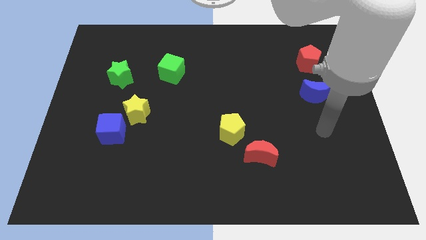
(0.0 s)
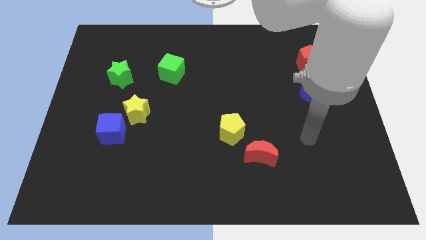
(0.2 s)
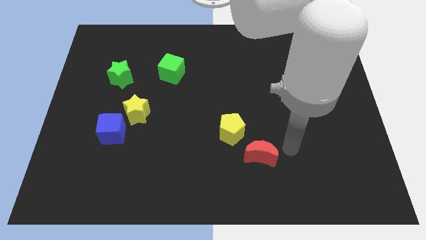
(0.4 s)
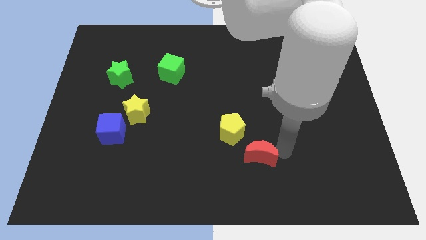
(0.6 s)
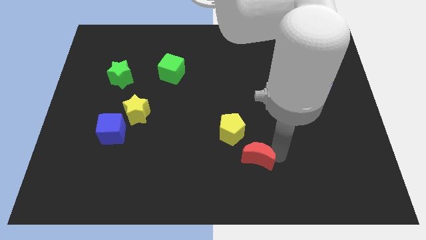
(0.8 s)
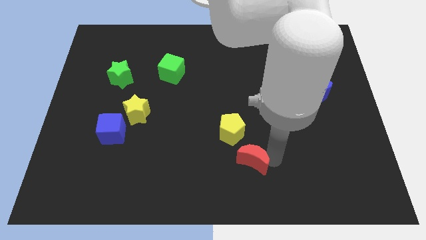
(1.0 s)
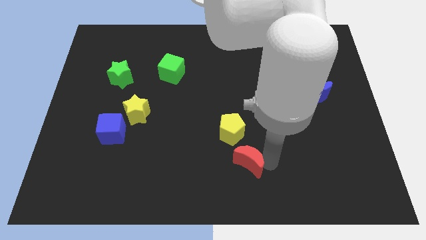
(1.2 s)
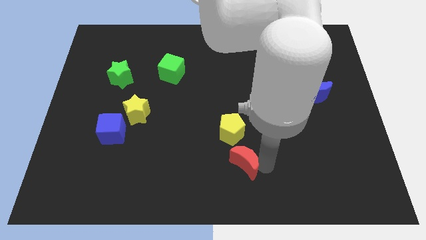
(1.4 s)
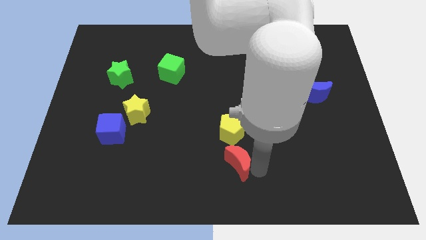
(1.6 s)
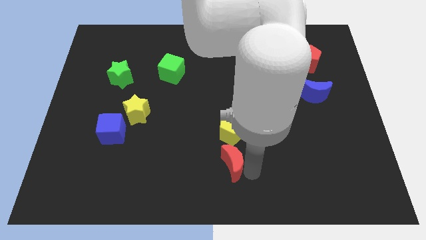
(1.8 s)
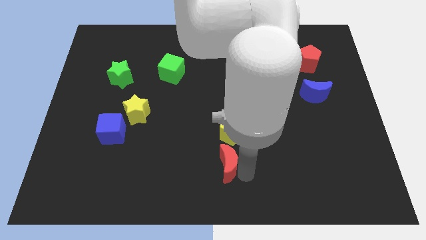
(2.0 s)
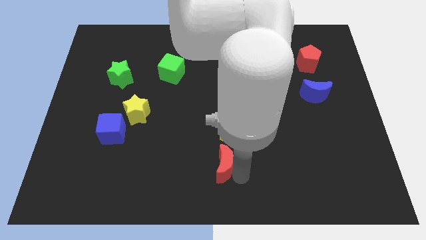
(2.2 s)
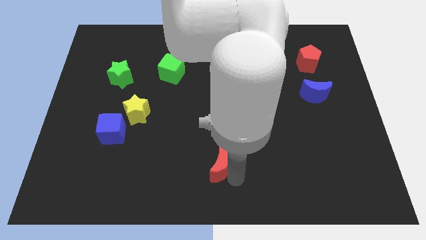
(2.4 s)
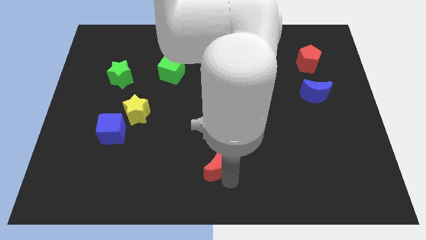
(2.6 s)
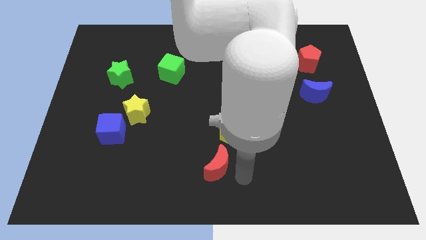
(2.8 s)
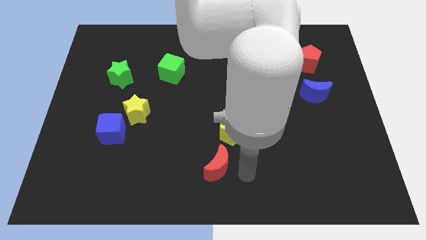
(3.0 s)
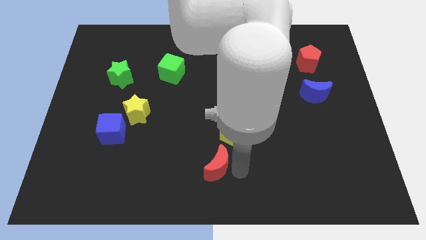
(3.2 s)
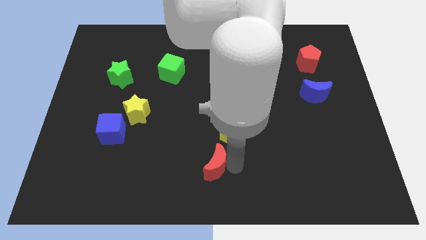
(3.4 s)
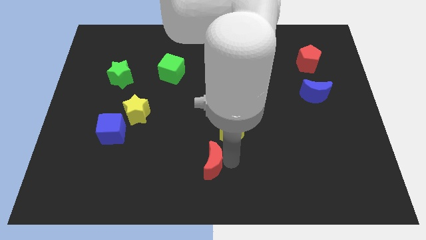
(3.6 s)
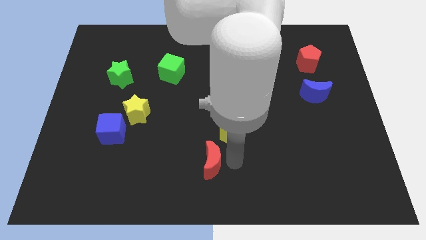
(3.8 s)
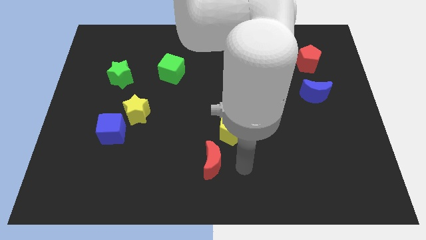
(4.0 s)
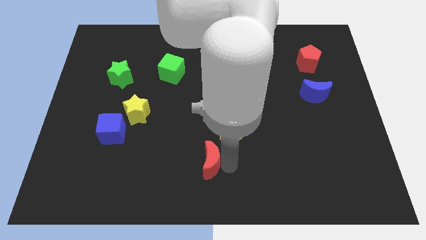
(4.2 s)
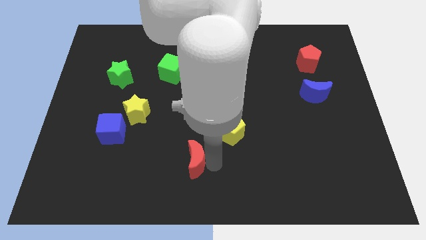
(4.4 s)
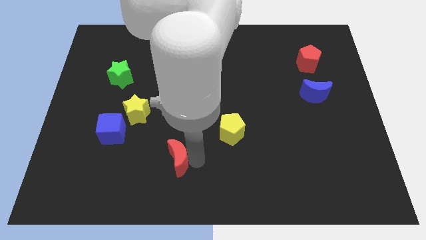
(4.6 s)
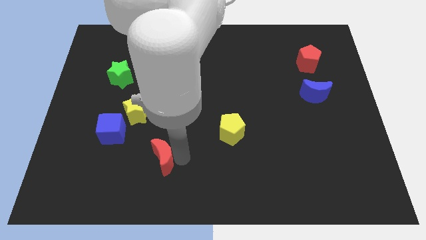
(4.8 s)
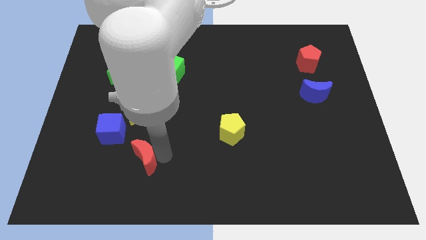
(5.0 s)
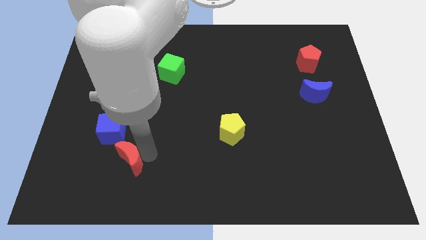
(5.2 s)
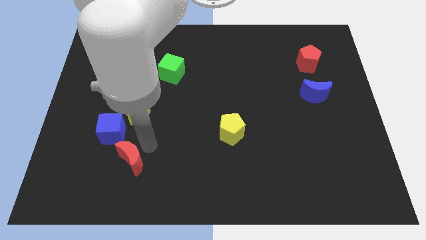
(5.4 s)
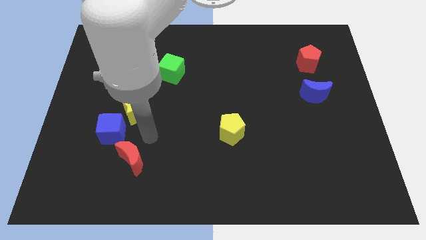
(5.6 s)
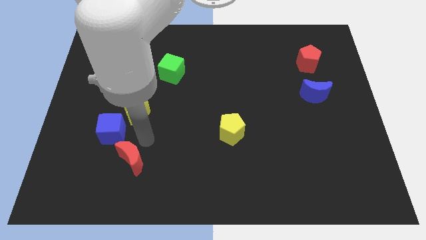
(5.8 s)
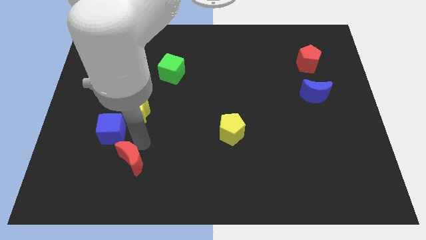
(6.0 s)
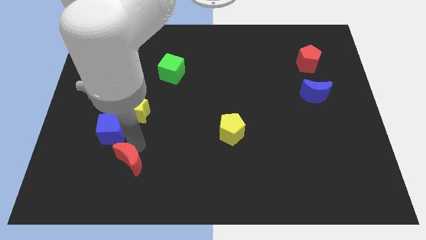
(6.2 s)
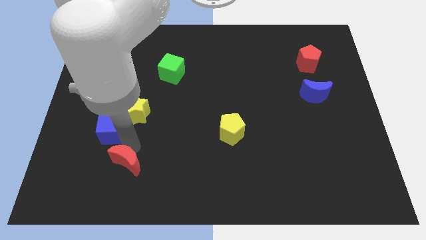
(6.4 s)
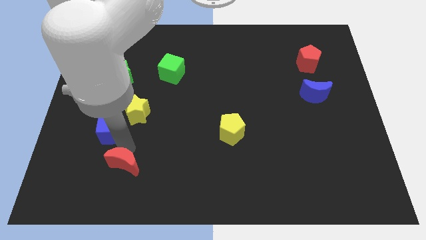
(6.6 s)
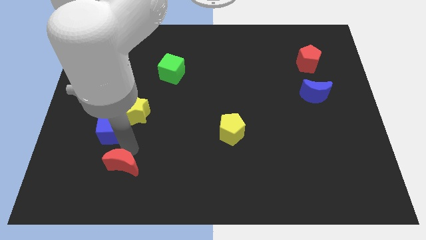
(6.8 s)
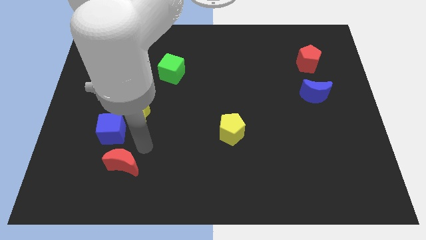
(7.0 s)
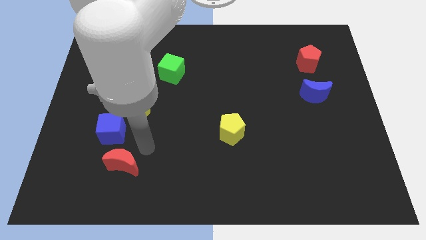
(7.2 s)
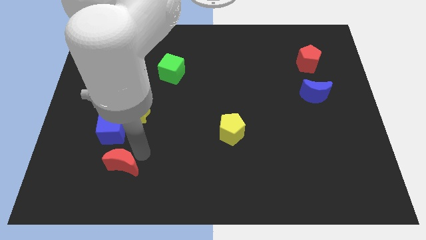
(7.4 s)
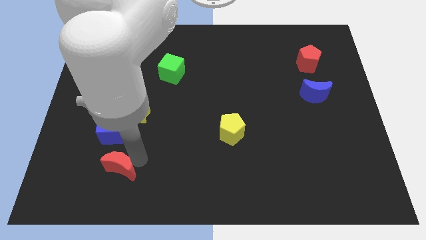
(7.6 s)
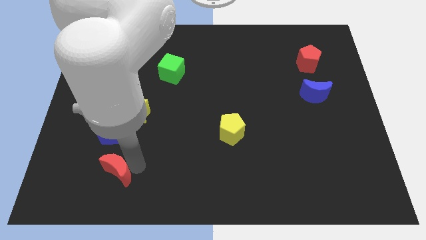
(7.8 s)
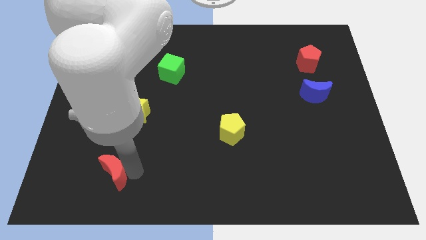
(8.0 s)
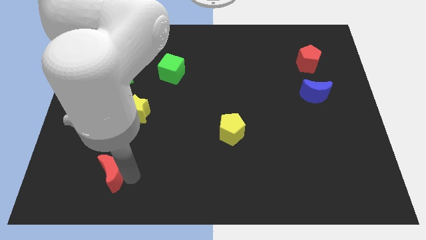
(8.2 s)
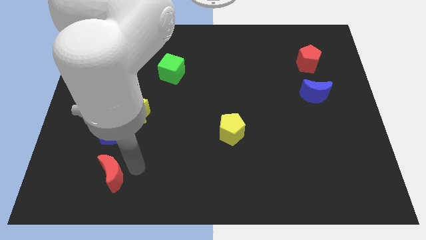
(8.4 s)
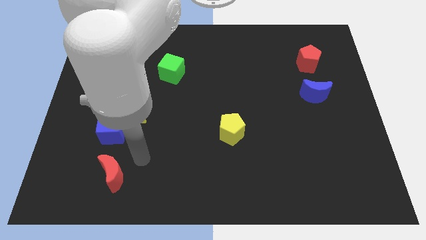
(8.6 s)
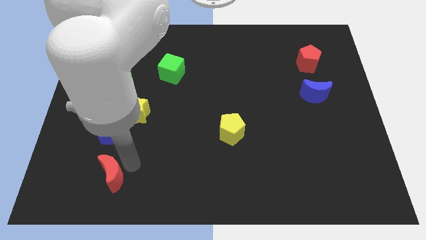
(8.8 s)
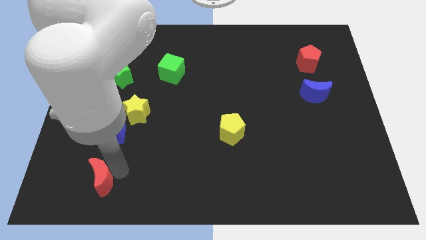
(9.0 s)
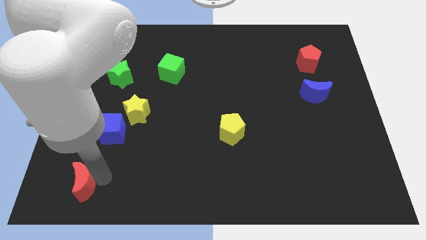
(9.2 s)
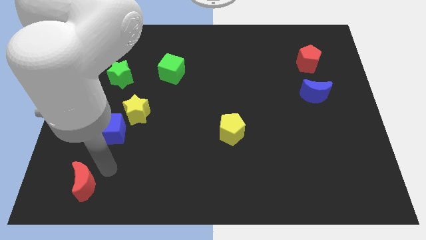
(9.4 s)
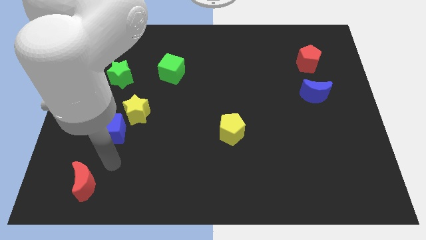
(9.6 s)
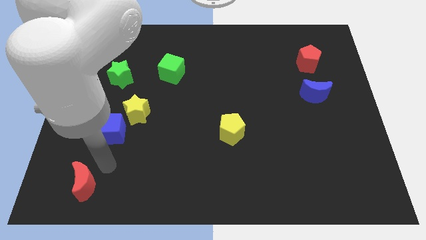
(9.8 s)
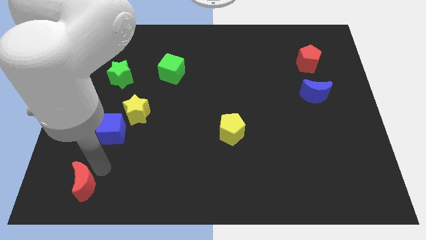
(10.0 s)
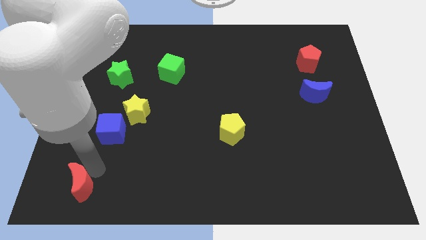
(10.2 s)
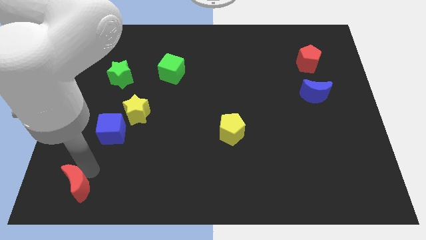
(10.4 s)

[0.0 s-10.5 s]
push the red moon to the bottom left

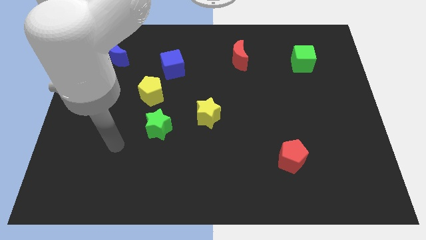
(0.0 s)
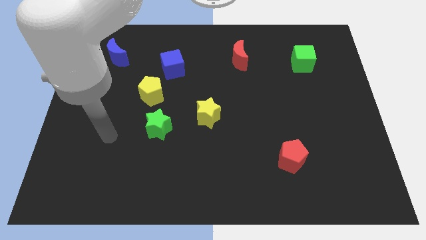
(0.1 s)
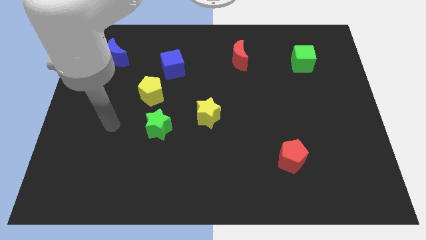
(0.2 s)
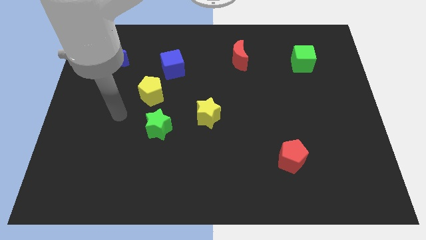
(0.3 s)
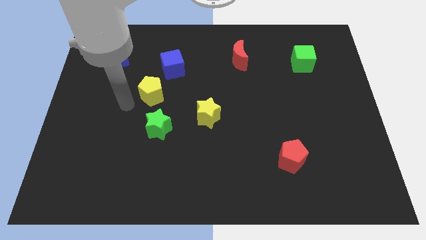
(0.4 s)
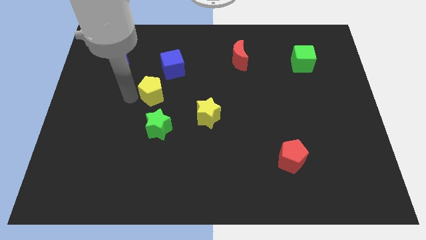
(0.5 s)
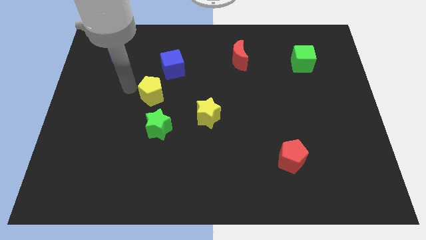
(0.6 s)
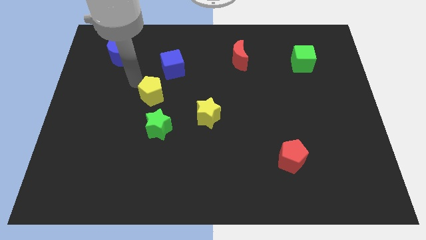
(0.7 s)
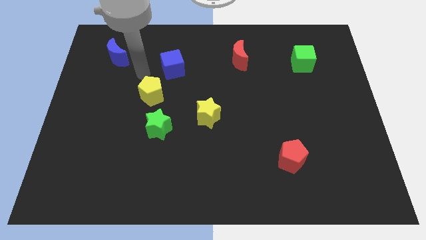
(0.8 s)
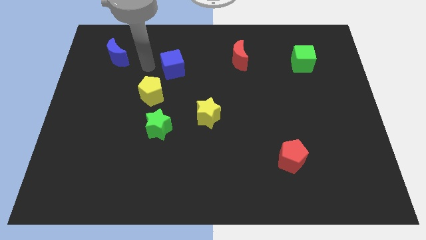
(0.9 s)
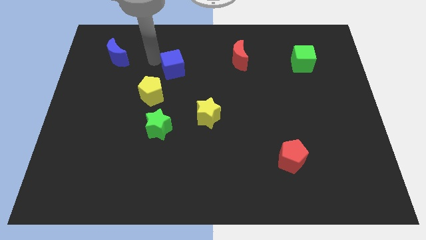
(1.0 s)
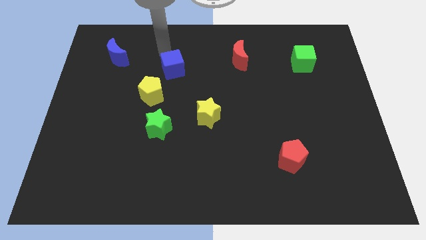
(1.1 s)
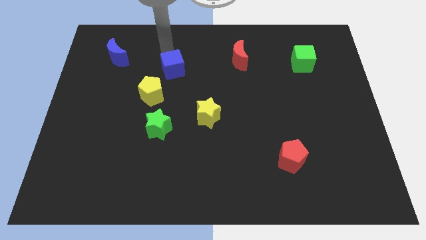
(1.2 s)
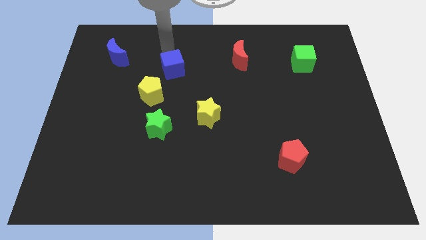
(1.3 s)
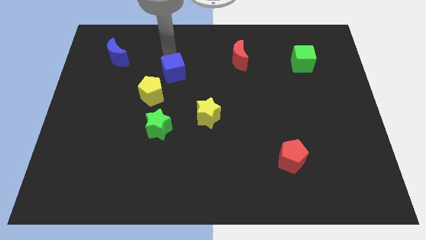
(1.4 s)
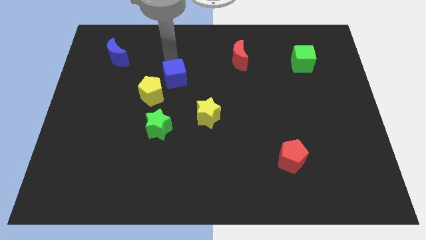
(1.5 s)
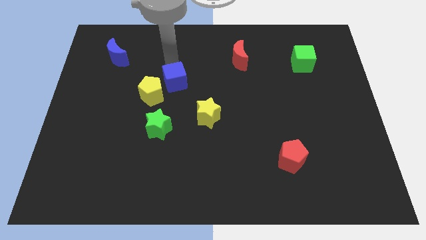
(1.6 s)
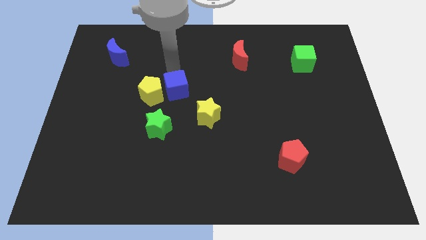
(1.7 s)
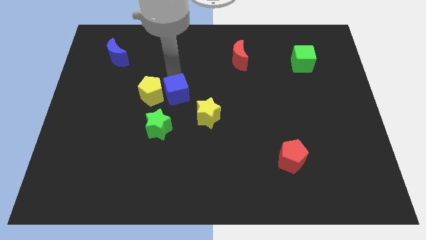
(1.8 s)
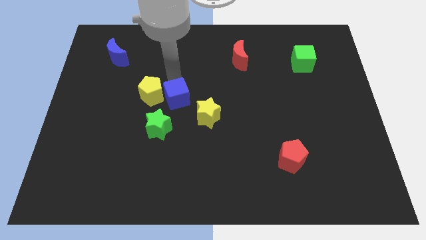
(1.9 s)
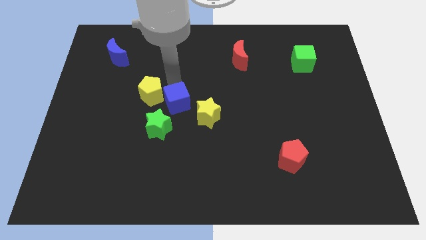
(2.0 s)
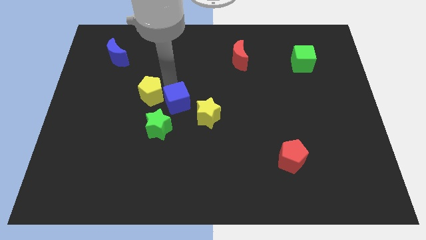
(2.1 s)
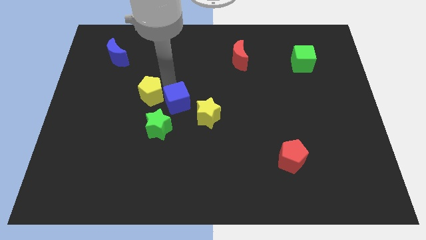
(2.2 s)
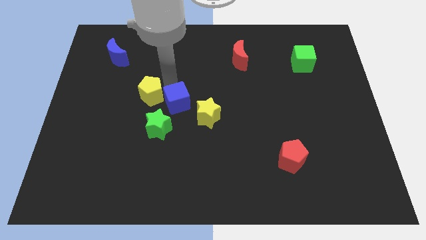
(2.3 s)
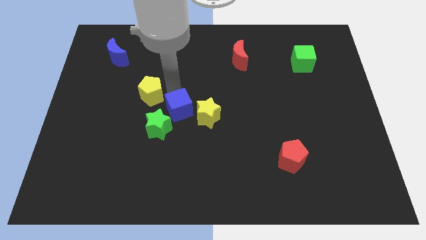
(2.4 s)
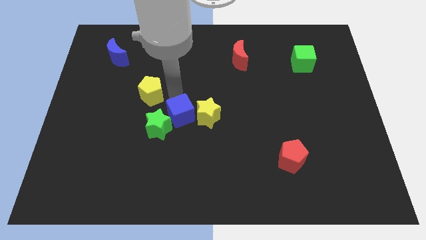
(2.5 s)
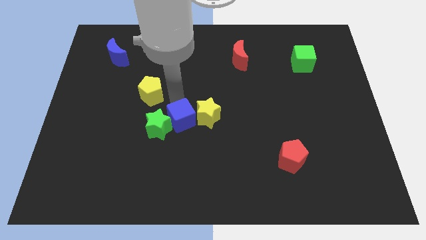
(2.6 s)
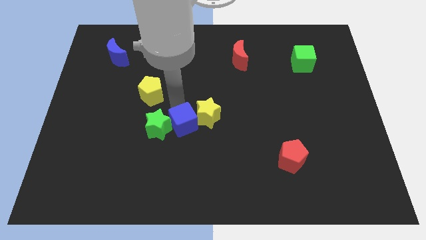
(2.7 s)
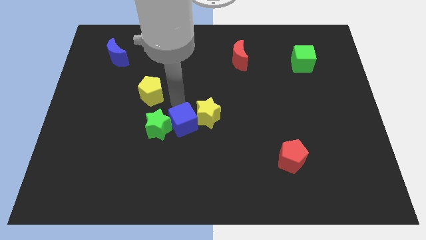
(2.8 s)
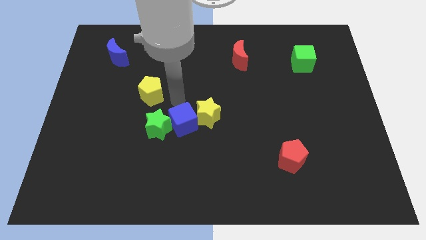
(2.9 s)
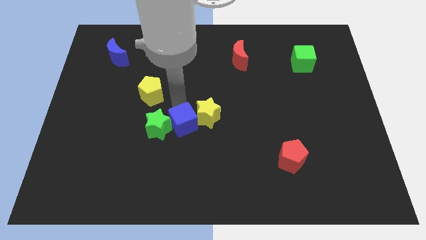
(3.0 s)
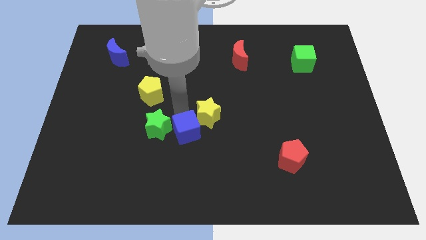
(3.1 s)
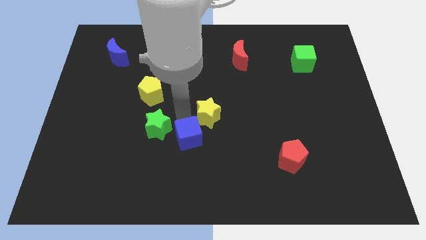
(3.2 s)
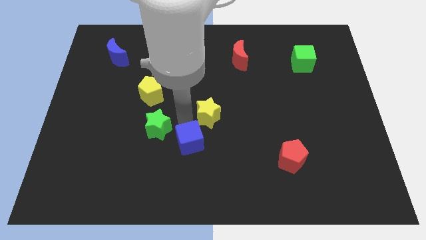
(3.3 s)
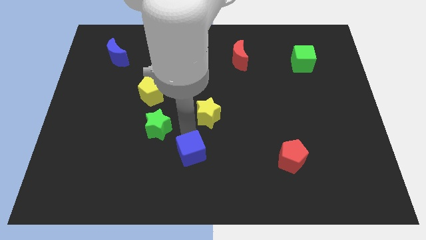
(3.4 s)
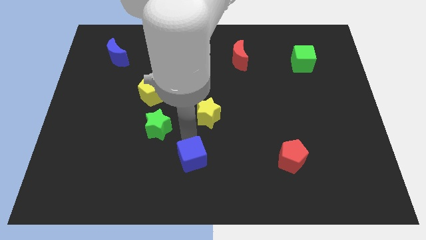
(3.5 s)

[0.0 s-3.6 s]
slide the blue cube to the bottom side
